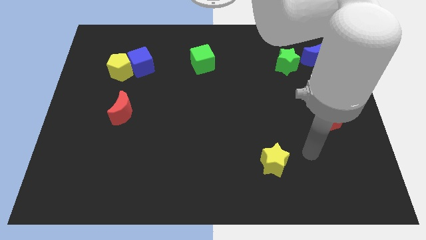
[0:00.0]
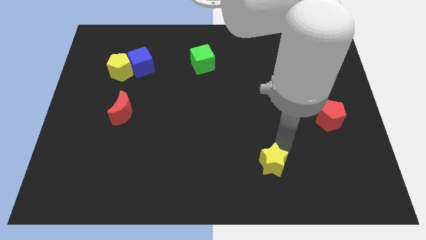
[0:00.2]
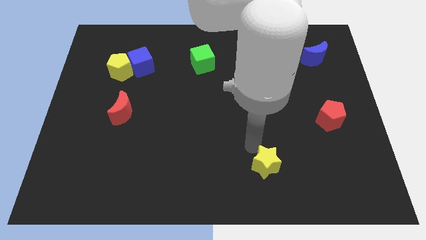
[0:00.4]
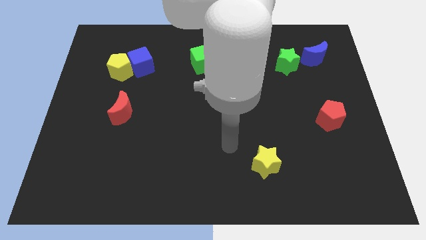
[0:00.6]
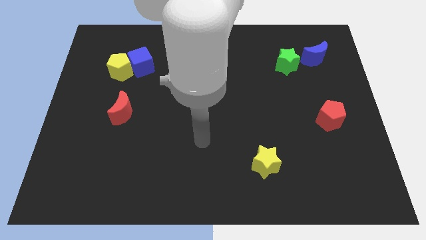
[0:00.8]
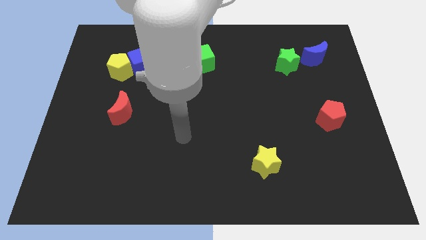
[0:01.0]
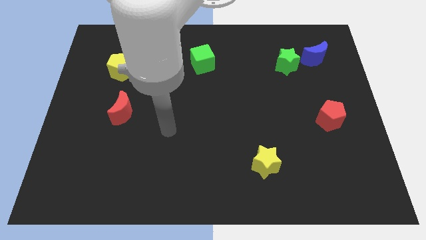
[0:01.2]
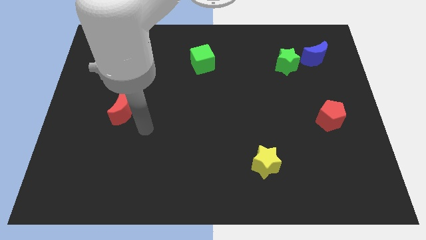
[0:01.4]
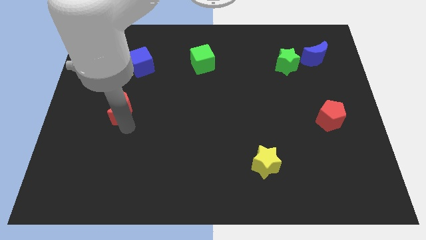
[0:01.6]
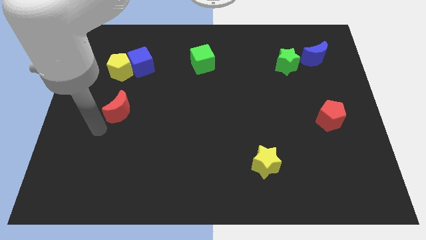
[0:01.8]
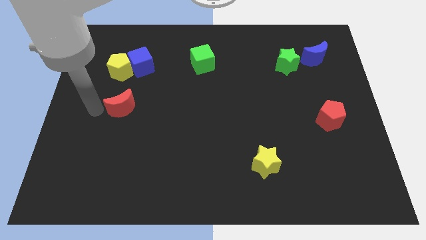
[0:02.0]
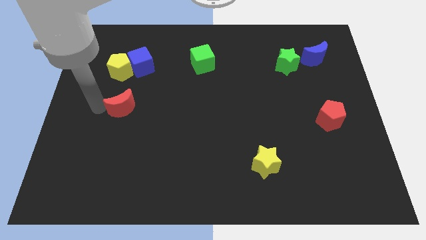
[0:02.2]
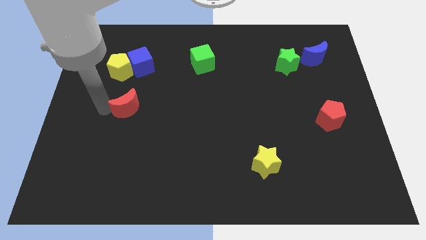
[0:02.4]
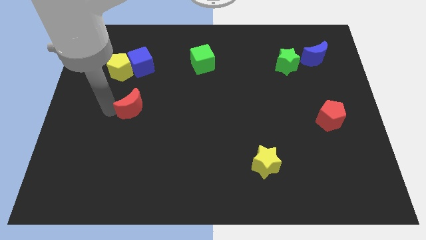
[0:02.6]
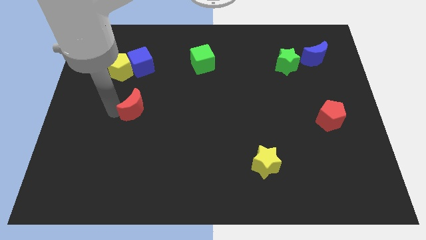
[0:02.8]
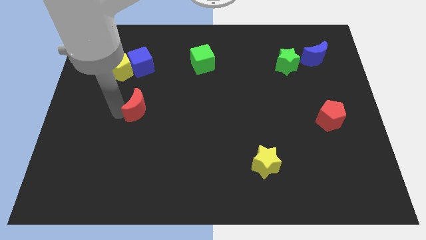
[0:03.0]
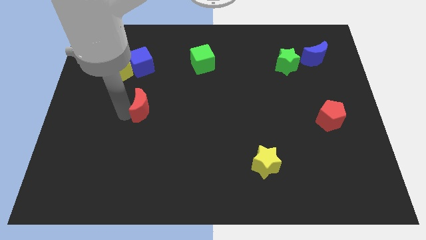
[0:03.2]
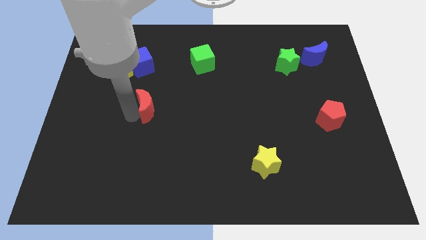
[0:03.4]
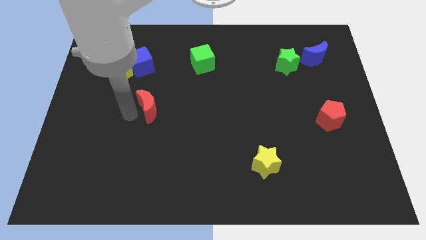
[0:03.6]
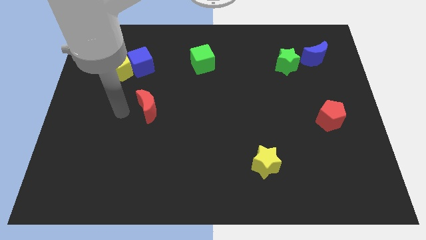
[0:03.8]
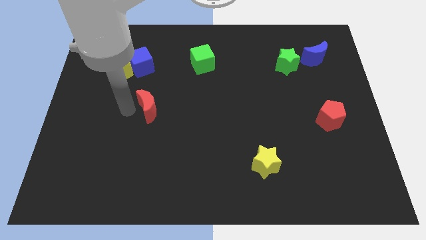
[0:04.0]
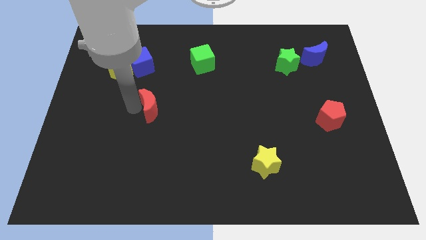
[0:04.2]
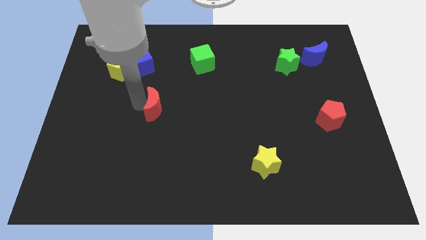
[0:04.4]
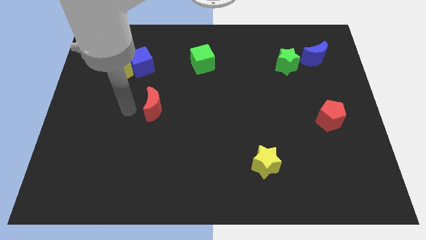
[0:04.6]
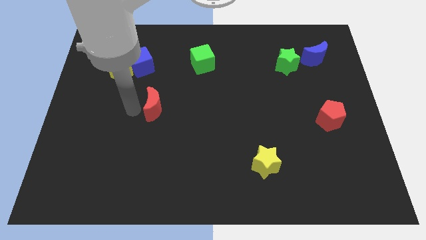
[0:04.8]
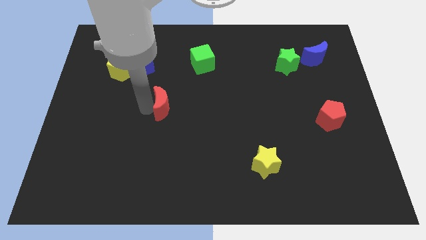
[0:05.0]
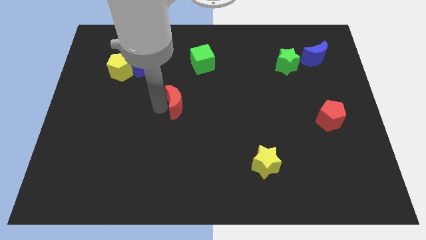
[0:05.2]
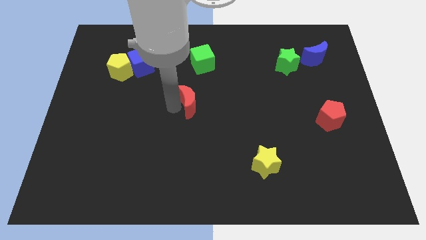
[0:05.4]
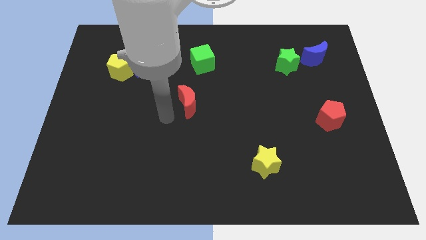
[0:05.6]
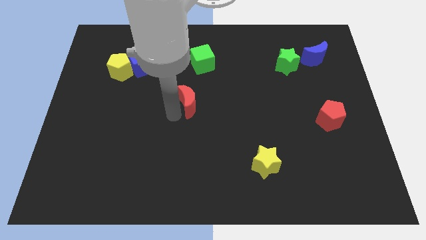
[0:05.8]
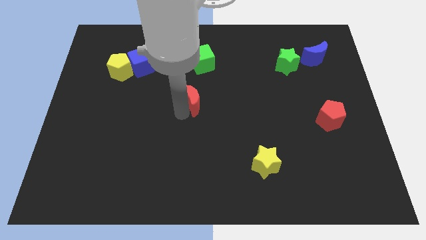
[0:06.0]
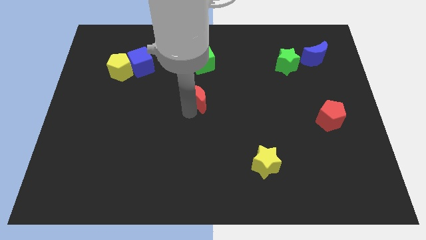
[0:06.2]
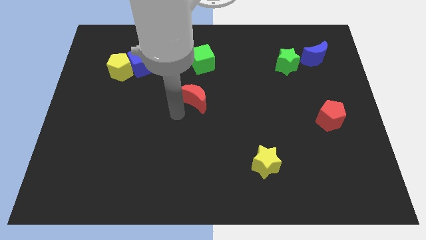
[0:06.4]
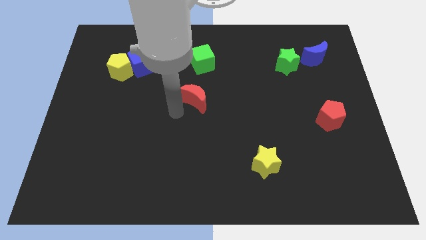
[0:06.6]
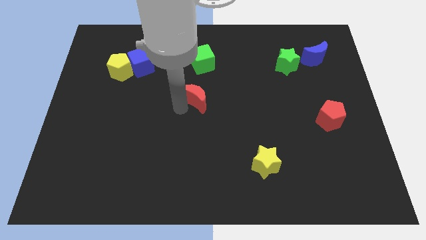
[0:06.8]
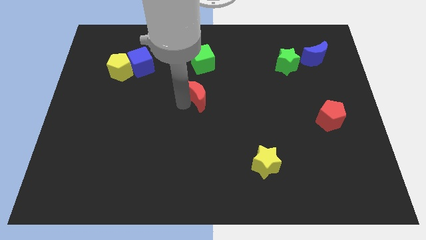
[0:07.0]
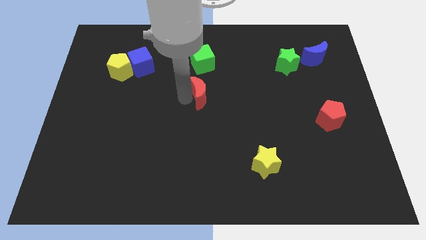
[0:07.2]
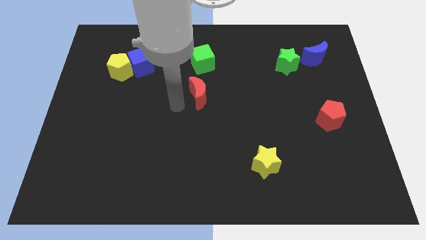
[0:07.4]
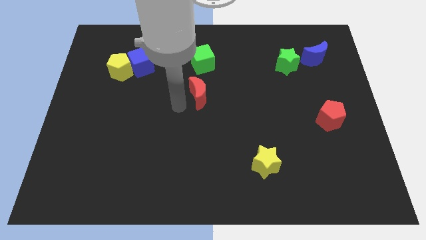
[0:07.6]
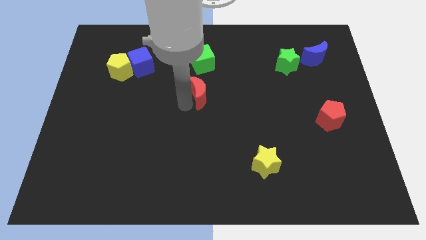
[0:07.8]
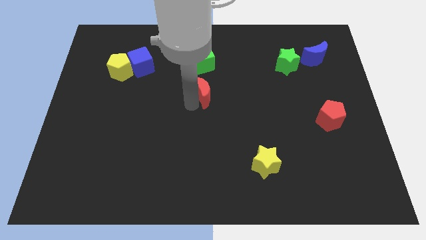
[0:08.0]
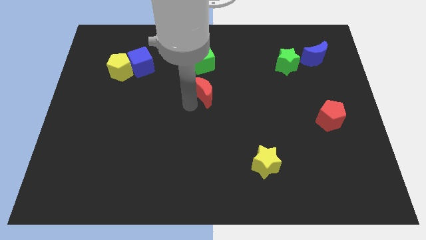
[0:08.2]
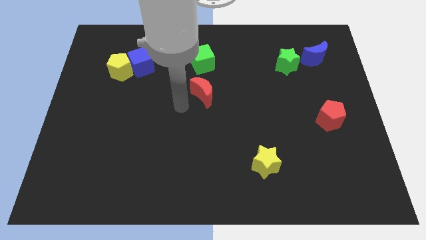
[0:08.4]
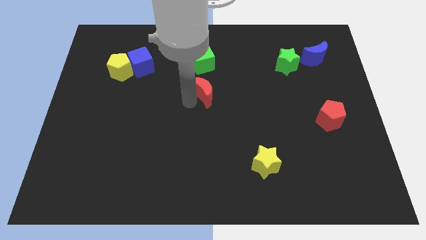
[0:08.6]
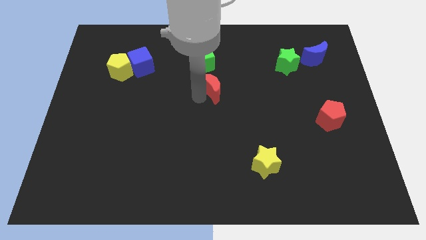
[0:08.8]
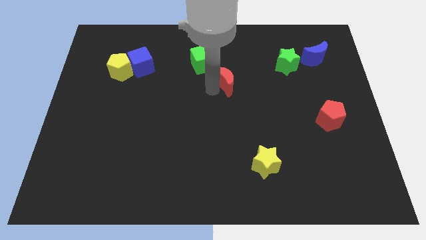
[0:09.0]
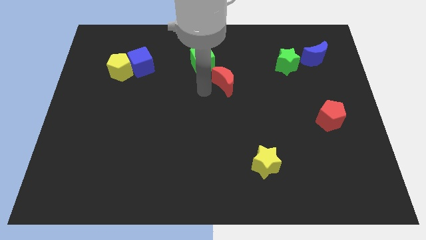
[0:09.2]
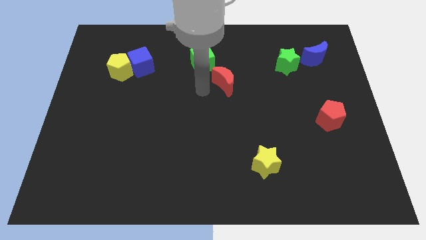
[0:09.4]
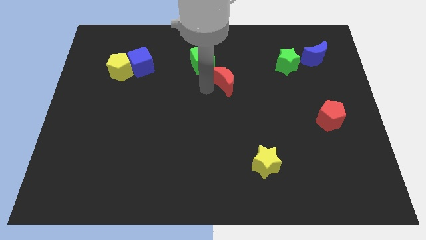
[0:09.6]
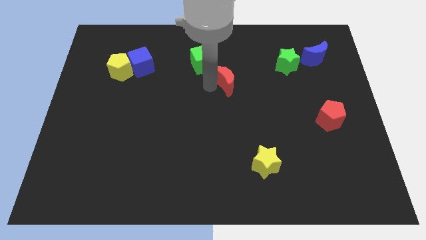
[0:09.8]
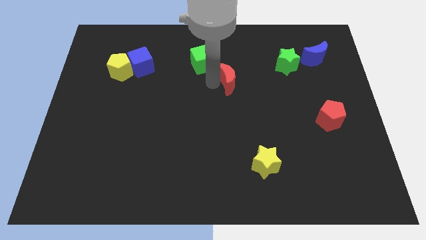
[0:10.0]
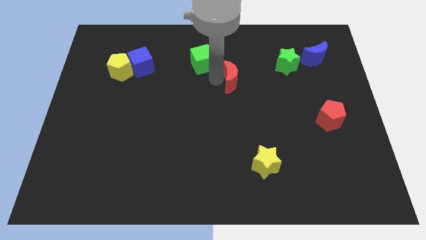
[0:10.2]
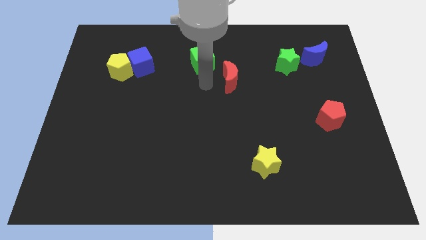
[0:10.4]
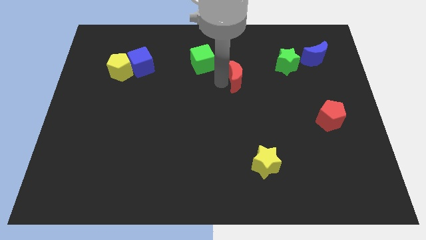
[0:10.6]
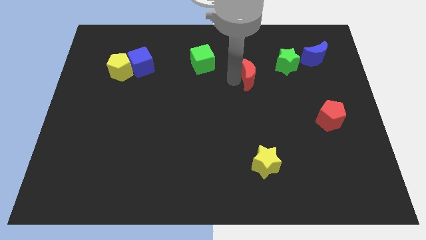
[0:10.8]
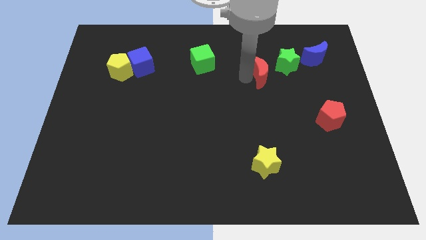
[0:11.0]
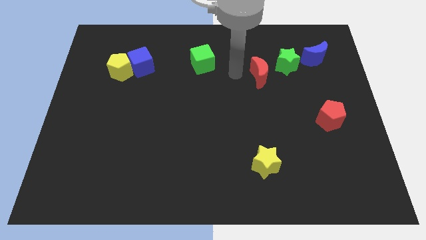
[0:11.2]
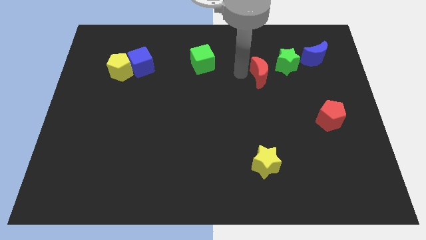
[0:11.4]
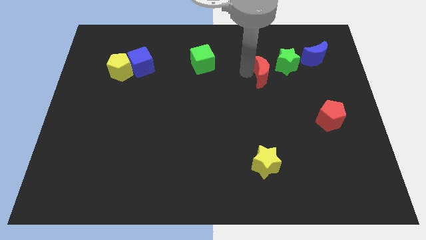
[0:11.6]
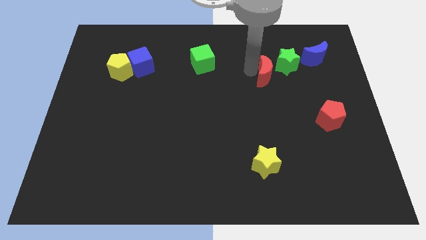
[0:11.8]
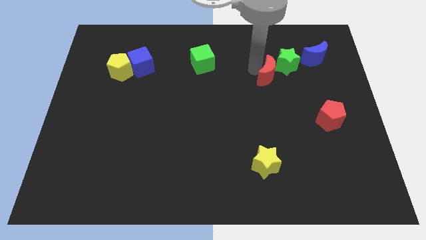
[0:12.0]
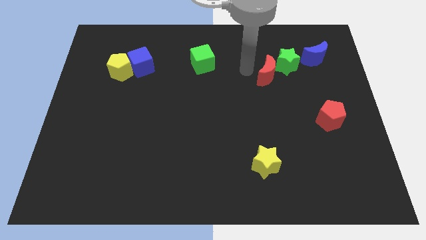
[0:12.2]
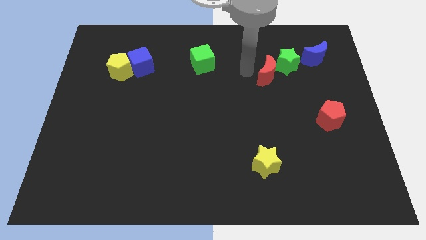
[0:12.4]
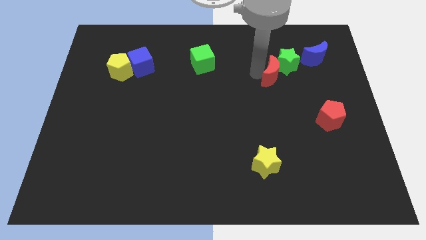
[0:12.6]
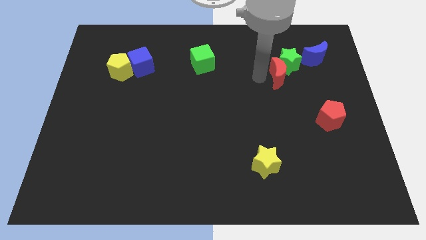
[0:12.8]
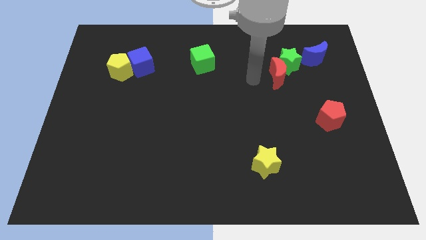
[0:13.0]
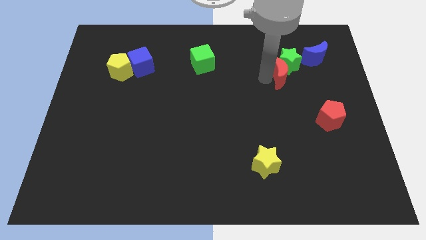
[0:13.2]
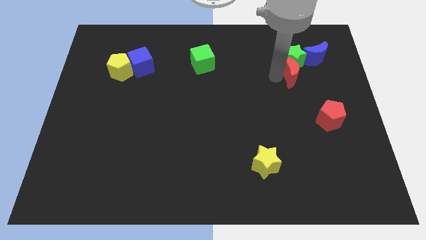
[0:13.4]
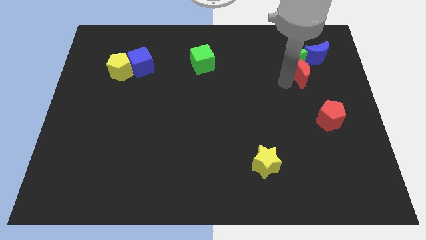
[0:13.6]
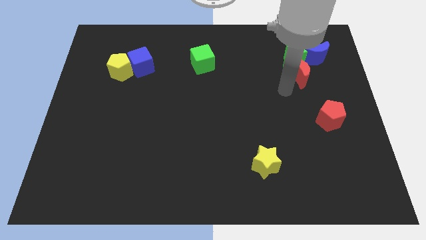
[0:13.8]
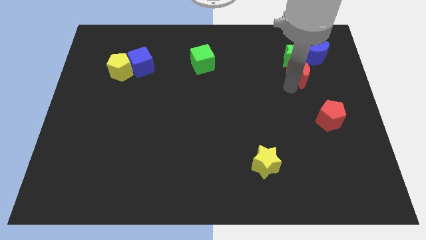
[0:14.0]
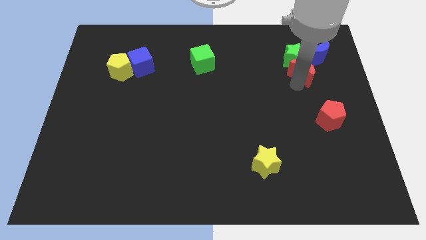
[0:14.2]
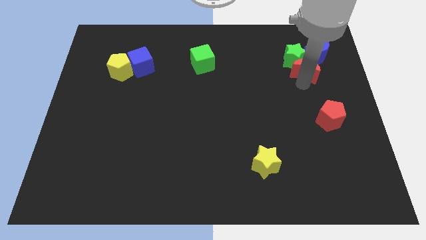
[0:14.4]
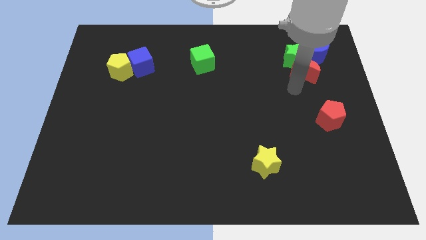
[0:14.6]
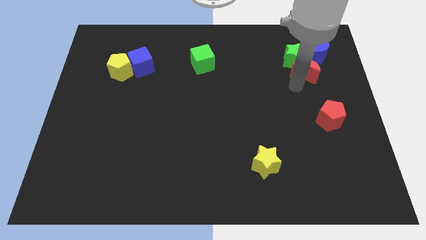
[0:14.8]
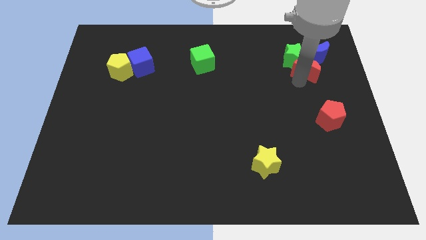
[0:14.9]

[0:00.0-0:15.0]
put the red moon close to the blue moon

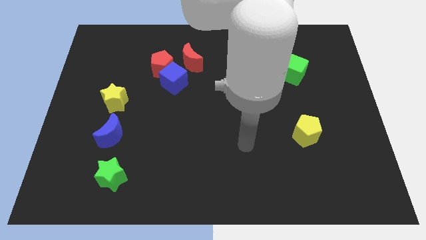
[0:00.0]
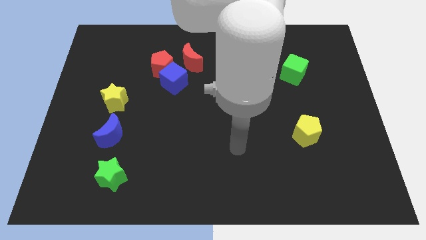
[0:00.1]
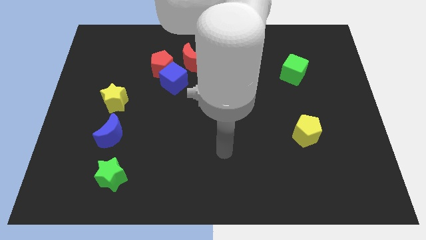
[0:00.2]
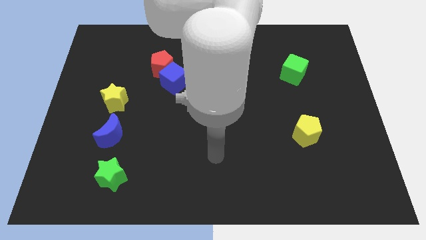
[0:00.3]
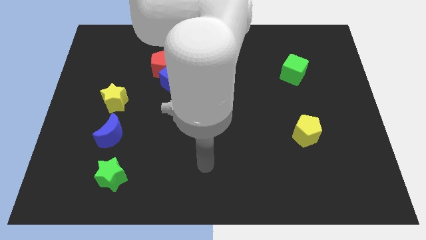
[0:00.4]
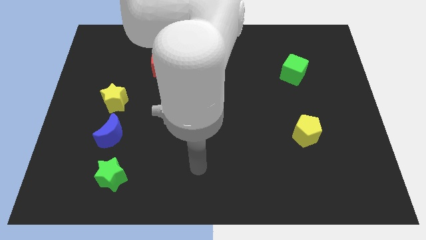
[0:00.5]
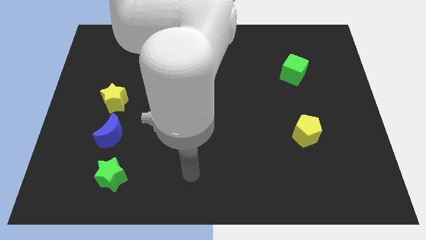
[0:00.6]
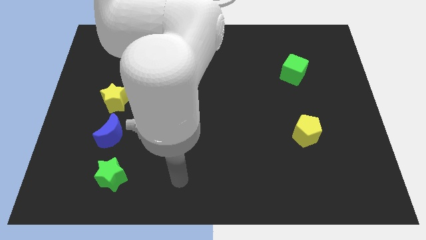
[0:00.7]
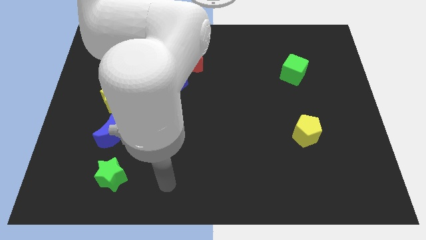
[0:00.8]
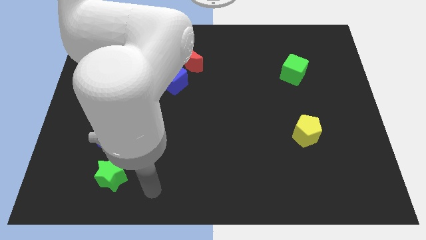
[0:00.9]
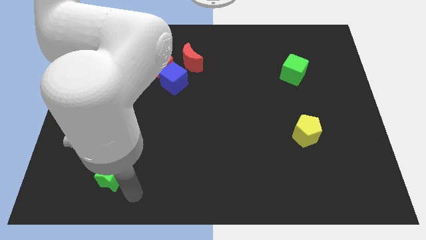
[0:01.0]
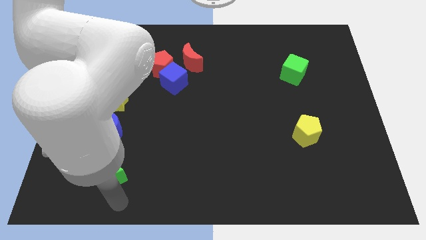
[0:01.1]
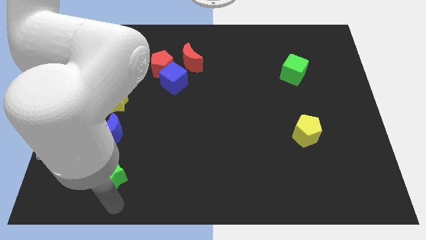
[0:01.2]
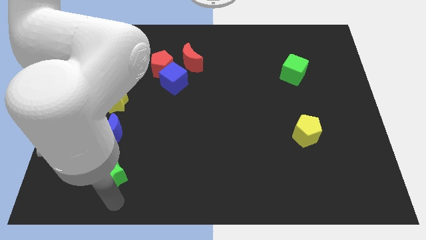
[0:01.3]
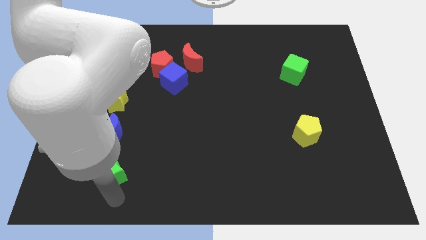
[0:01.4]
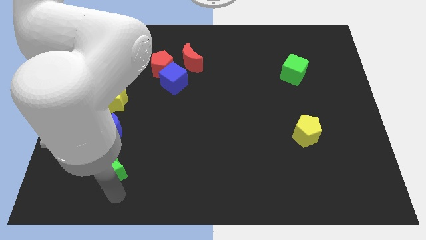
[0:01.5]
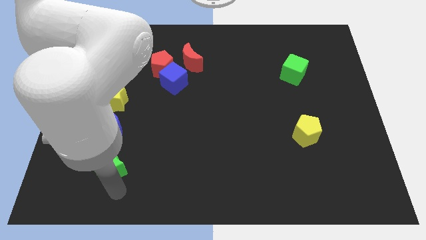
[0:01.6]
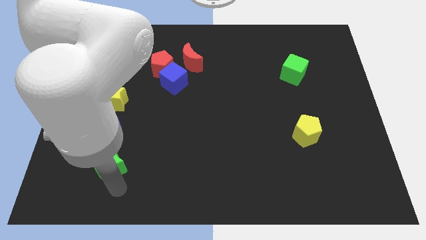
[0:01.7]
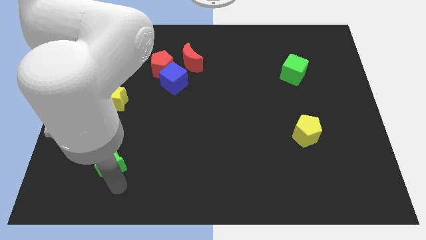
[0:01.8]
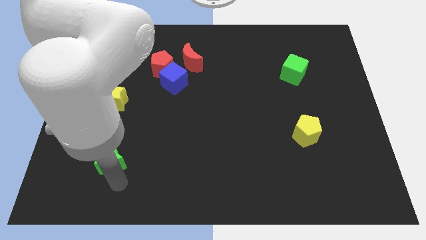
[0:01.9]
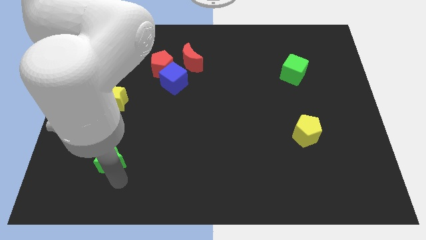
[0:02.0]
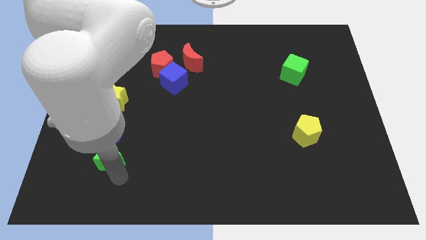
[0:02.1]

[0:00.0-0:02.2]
slide the green star close to the blue moon
